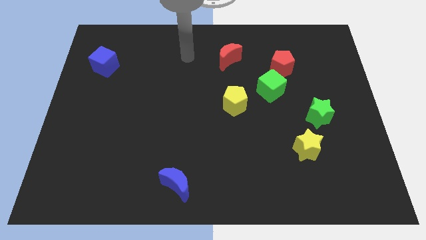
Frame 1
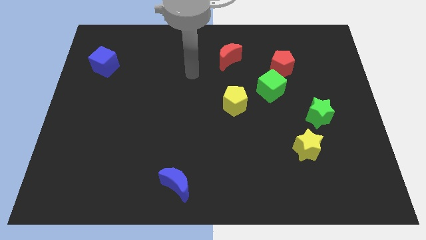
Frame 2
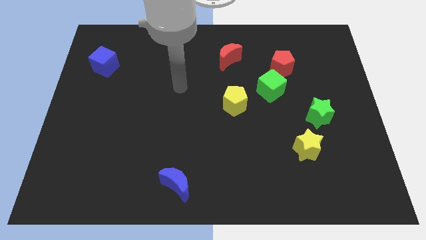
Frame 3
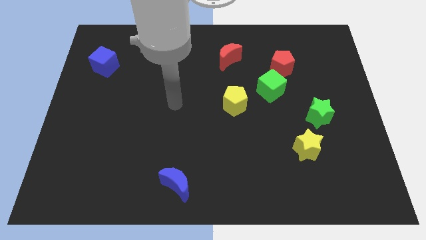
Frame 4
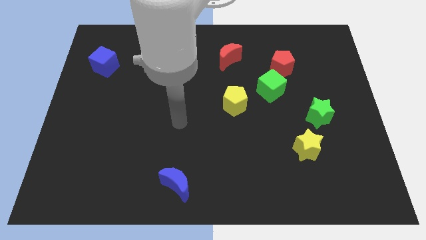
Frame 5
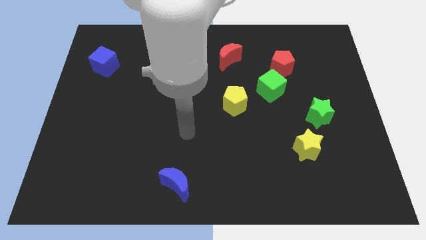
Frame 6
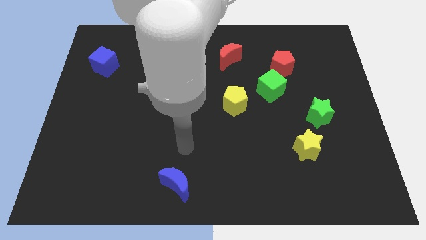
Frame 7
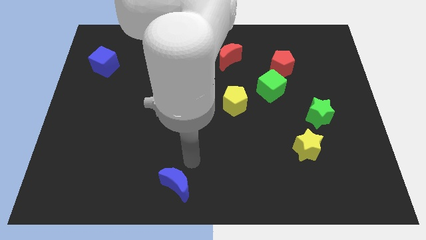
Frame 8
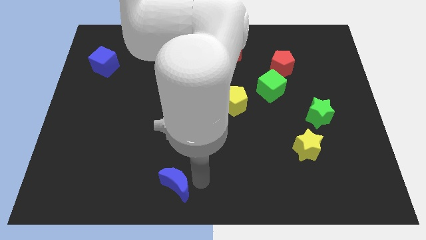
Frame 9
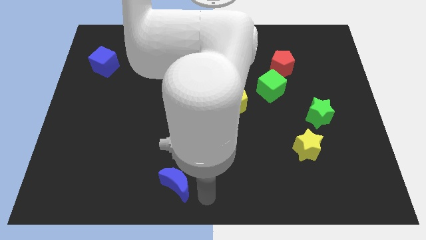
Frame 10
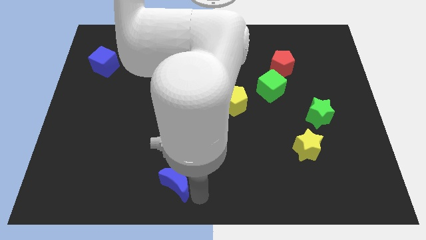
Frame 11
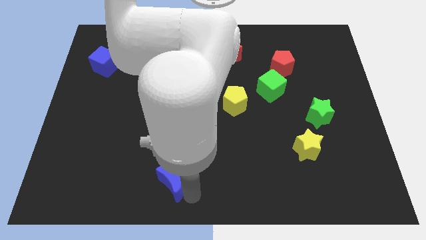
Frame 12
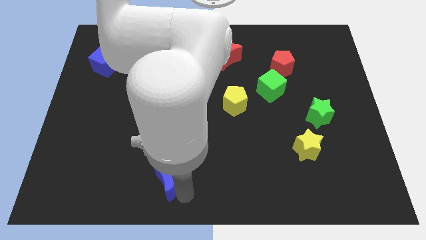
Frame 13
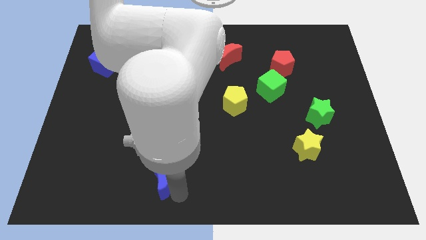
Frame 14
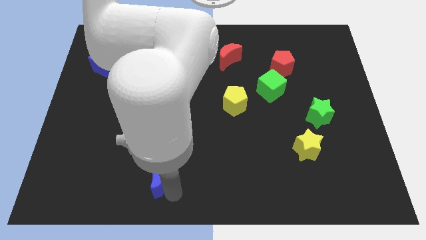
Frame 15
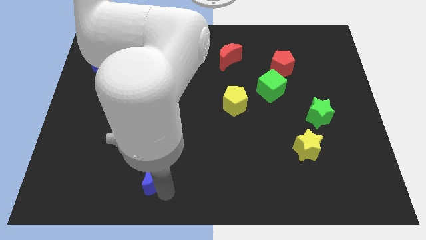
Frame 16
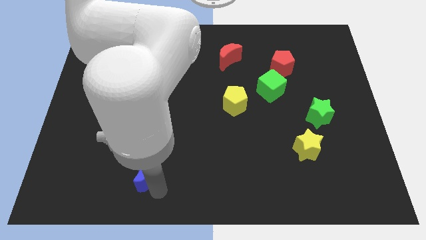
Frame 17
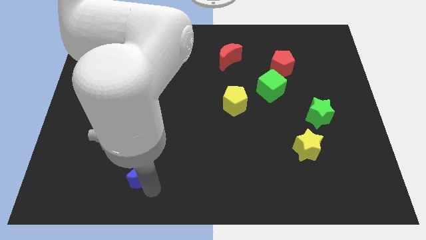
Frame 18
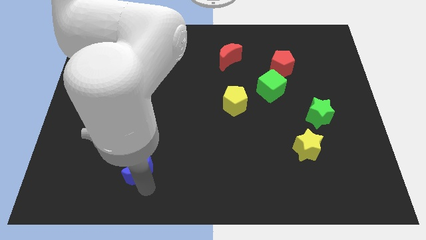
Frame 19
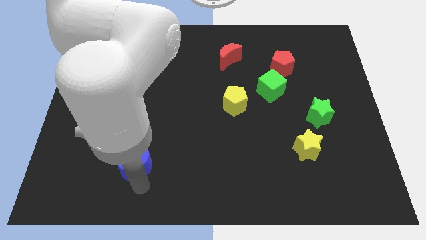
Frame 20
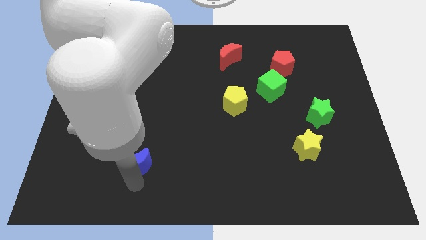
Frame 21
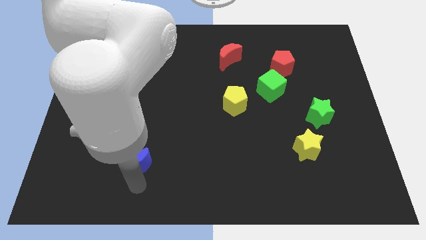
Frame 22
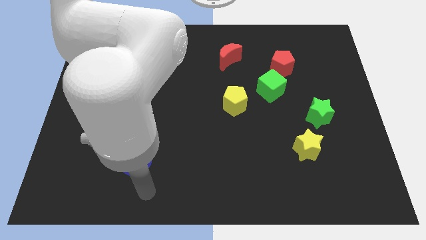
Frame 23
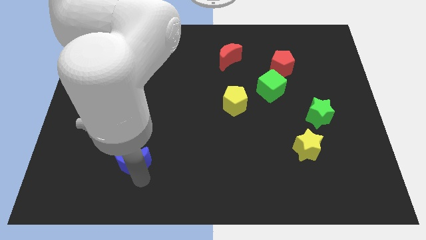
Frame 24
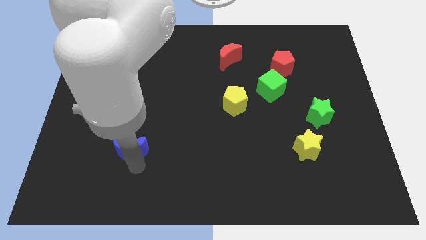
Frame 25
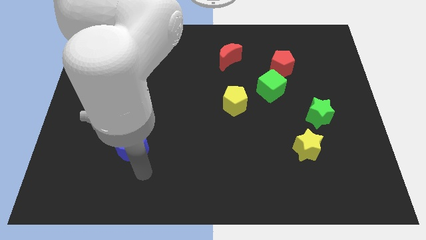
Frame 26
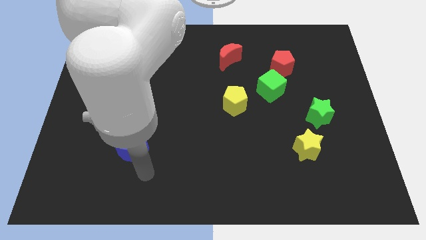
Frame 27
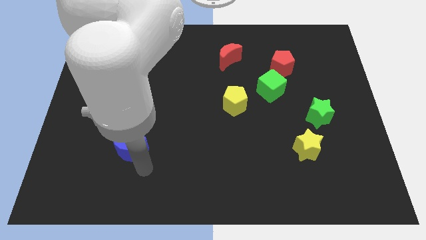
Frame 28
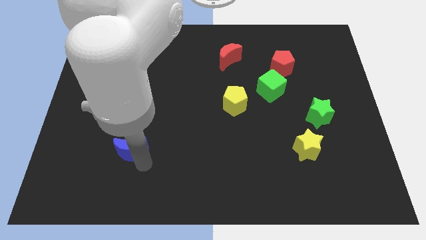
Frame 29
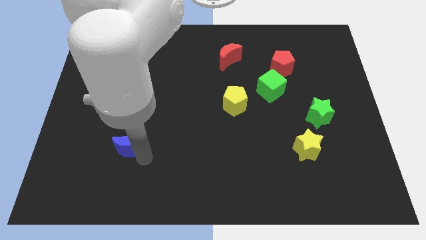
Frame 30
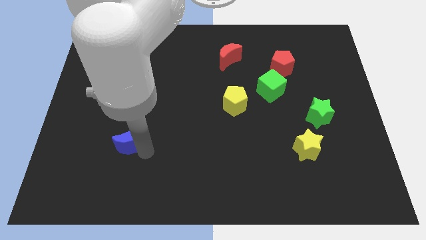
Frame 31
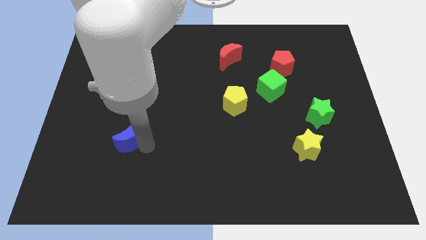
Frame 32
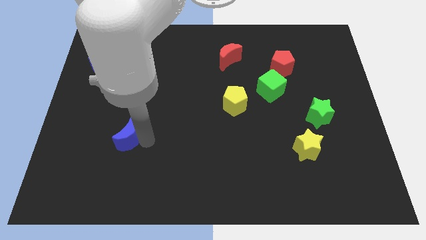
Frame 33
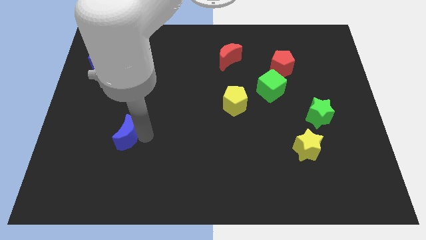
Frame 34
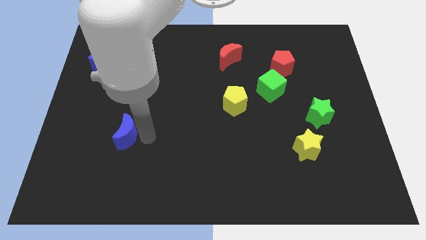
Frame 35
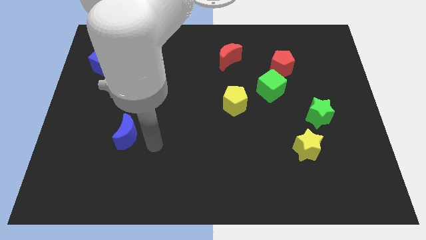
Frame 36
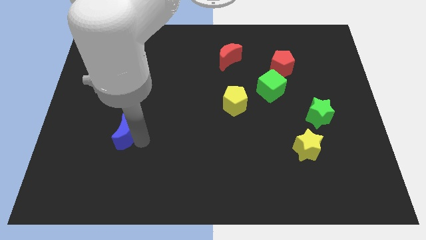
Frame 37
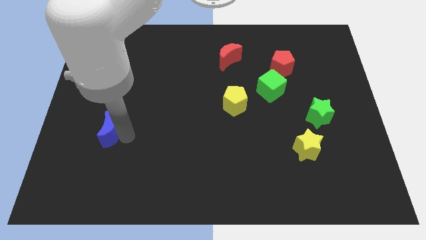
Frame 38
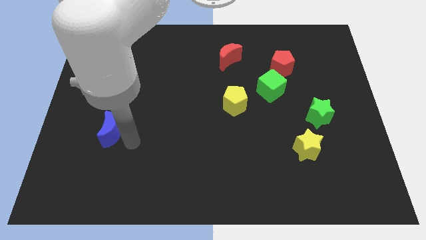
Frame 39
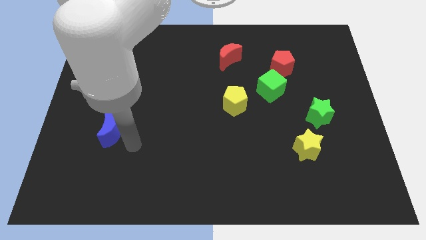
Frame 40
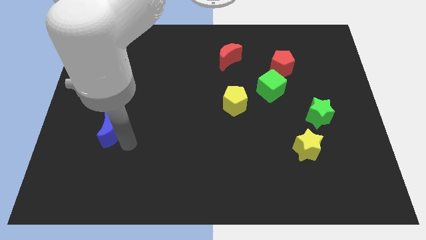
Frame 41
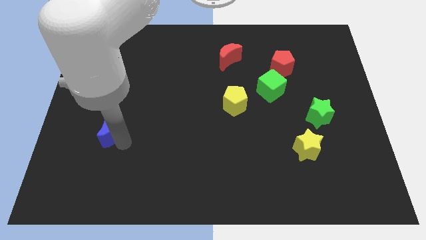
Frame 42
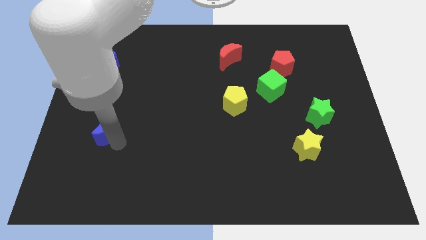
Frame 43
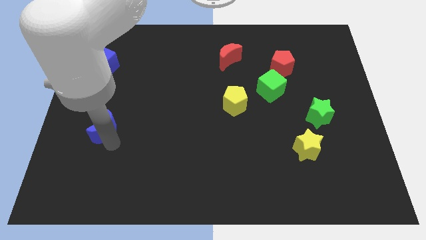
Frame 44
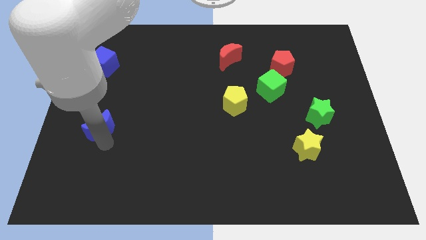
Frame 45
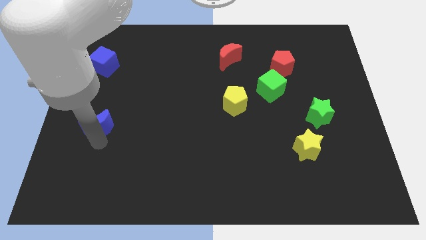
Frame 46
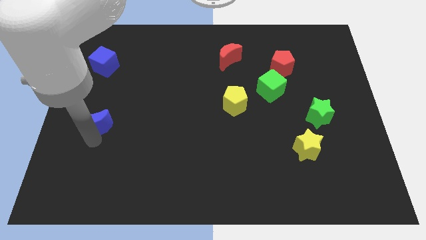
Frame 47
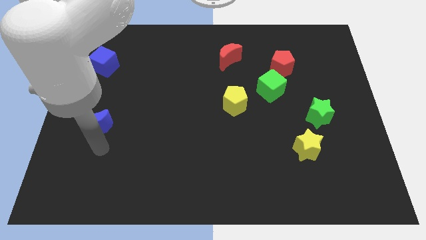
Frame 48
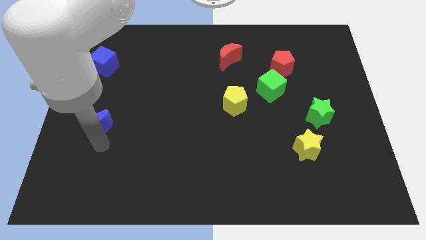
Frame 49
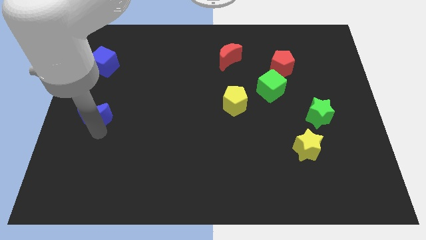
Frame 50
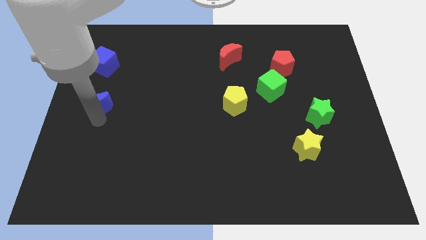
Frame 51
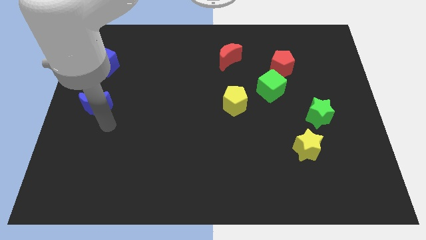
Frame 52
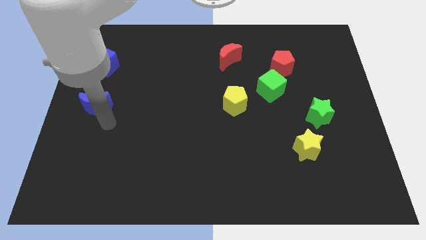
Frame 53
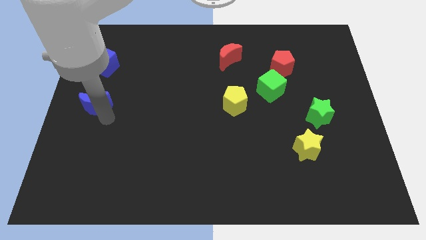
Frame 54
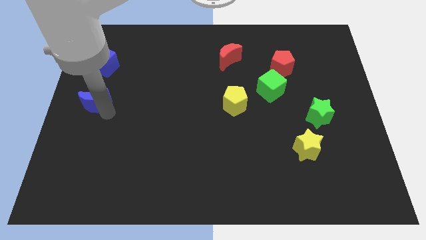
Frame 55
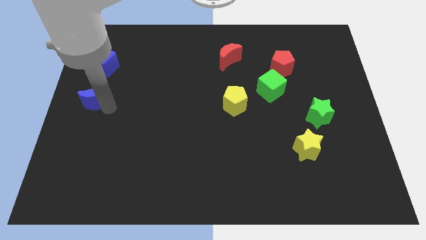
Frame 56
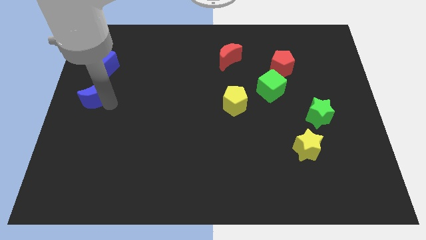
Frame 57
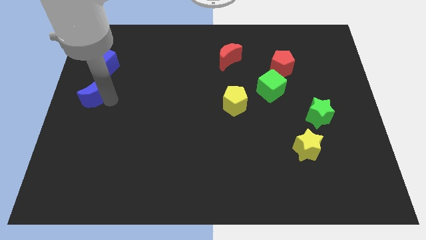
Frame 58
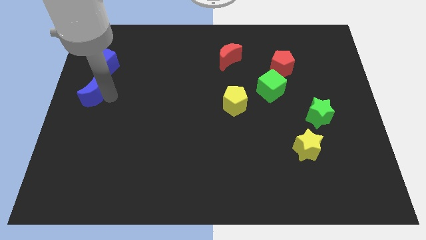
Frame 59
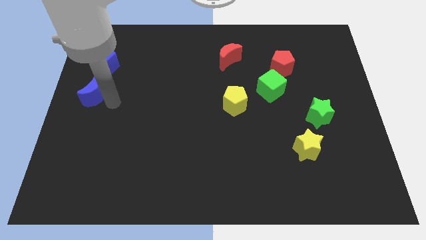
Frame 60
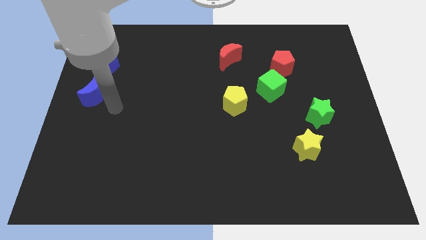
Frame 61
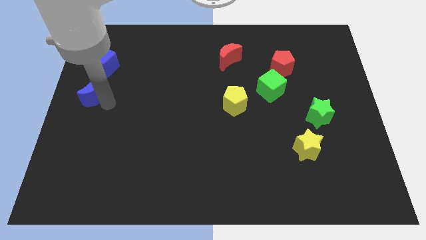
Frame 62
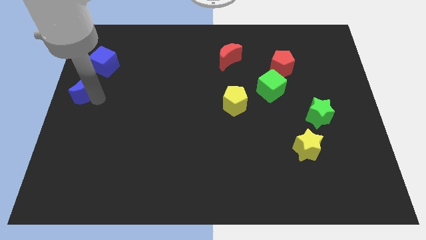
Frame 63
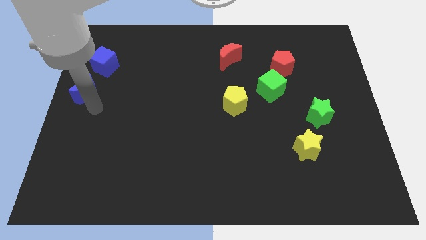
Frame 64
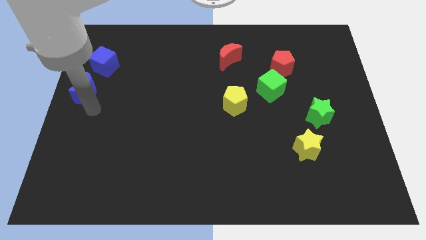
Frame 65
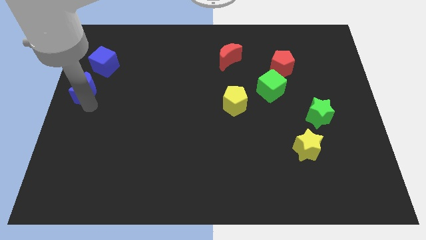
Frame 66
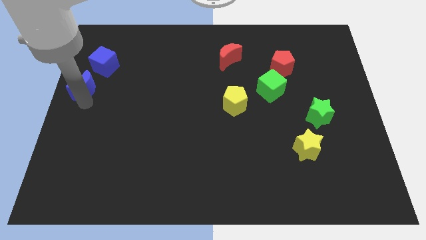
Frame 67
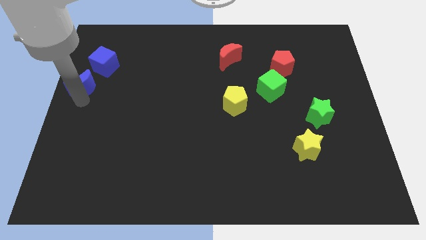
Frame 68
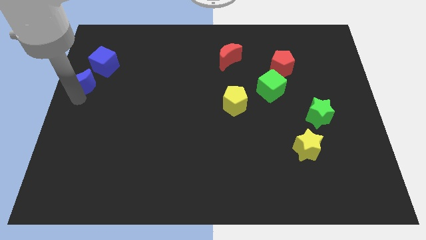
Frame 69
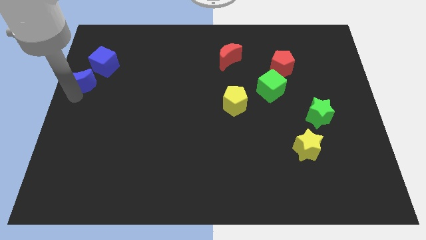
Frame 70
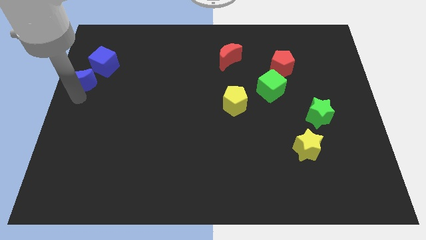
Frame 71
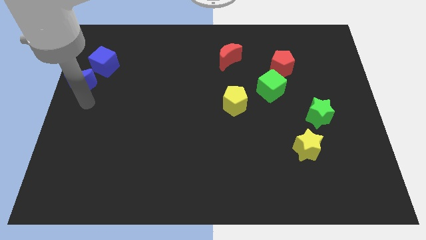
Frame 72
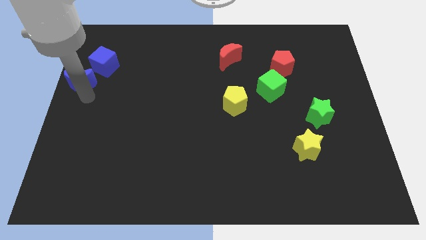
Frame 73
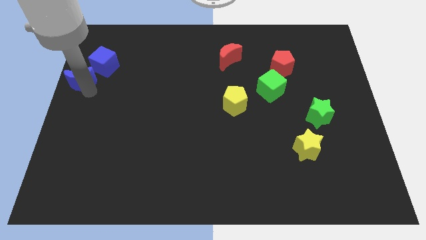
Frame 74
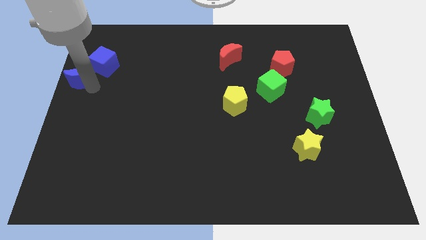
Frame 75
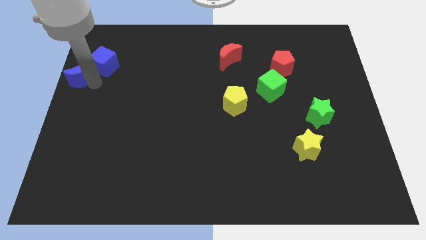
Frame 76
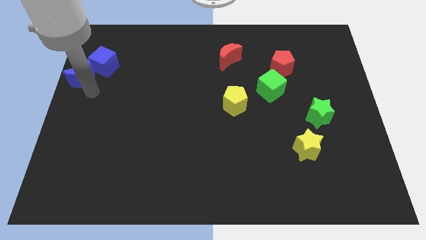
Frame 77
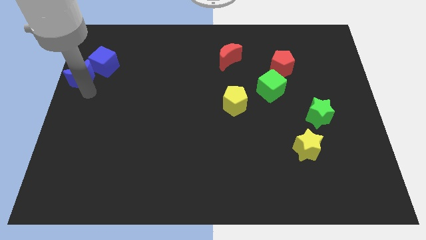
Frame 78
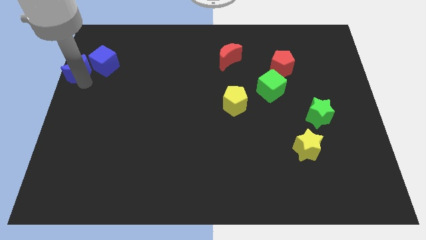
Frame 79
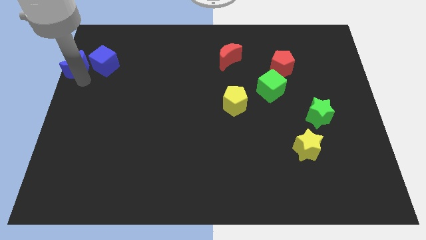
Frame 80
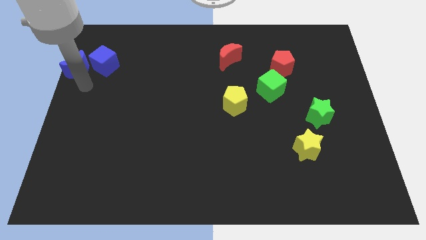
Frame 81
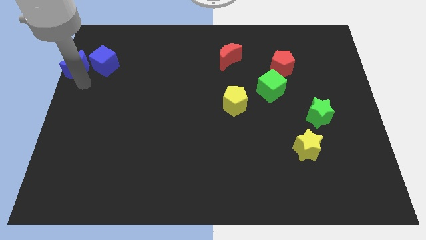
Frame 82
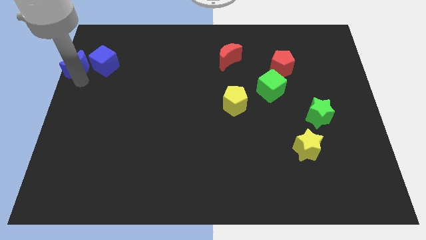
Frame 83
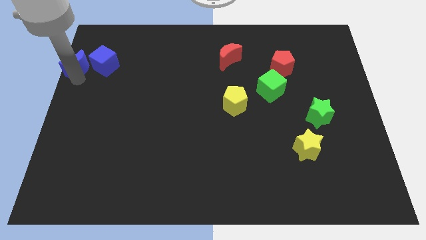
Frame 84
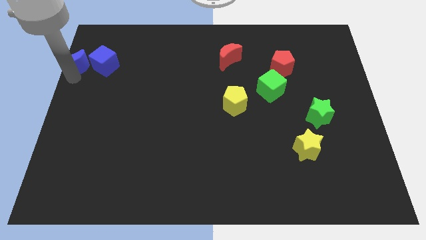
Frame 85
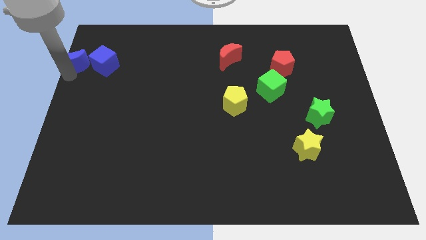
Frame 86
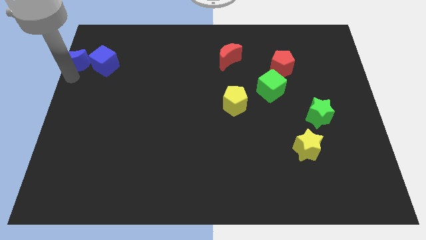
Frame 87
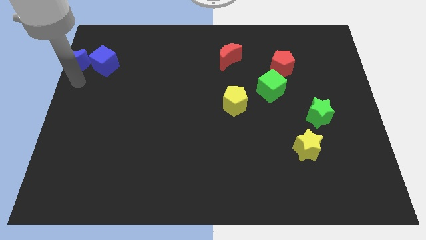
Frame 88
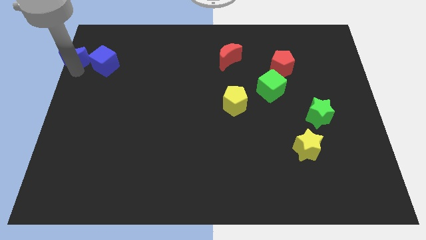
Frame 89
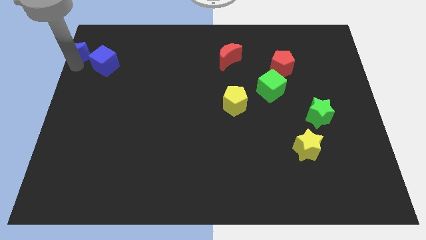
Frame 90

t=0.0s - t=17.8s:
slide the blue moon to the upper left corner
